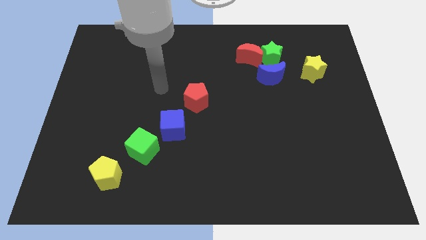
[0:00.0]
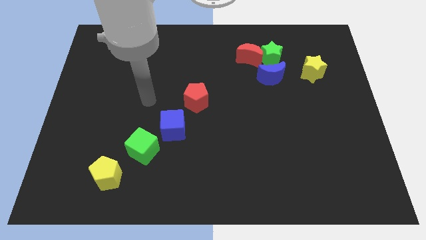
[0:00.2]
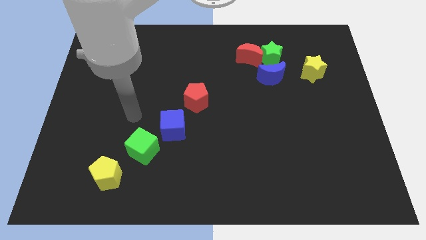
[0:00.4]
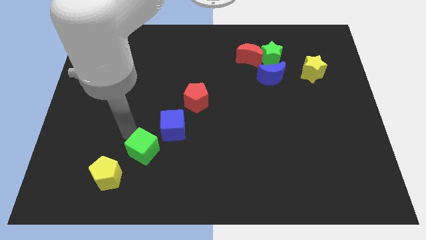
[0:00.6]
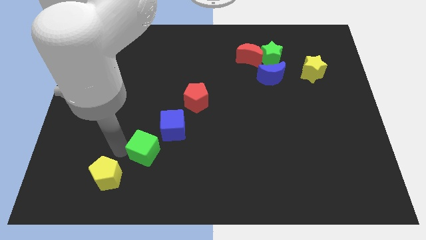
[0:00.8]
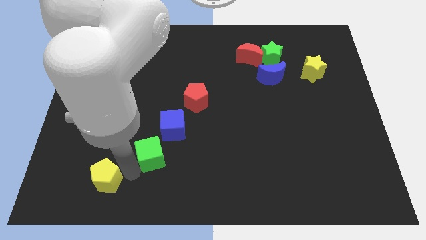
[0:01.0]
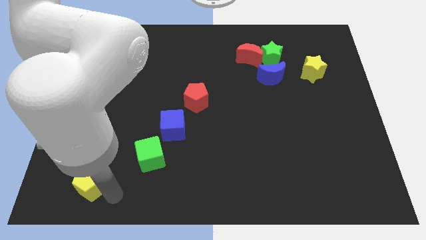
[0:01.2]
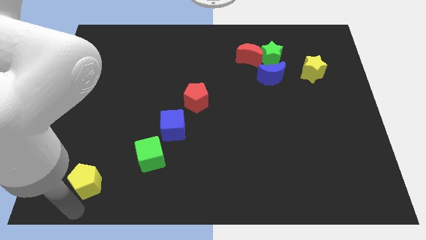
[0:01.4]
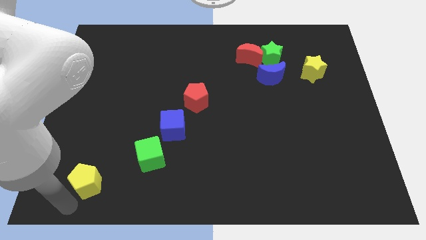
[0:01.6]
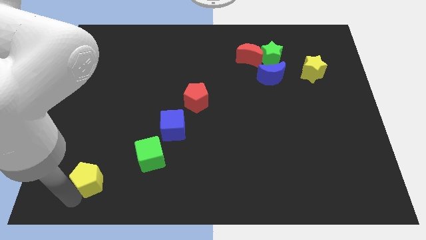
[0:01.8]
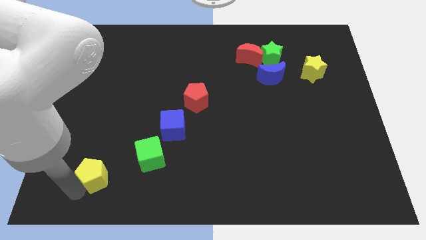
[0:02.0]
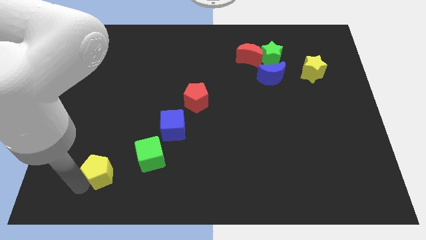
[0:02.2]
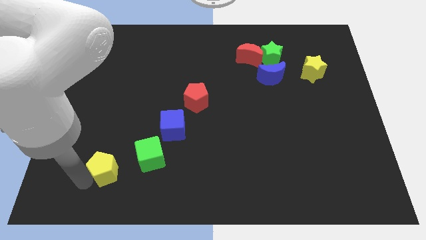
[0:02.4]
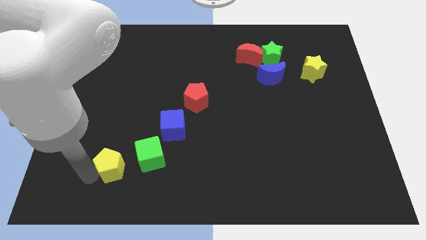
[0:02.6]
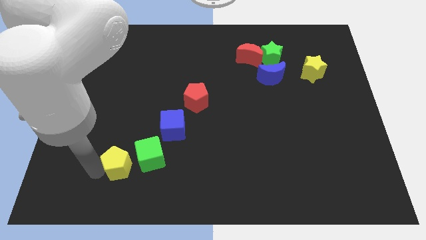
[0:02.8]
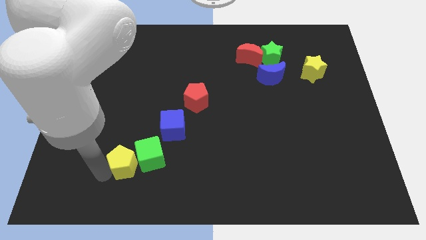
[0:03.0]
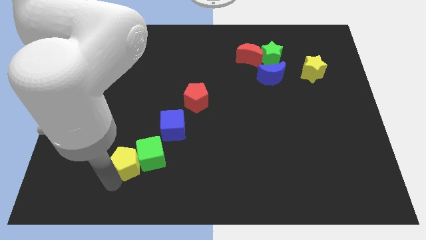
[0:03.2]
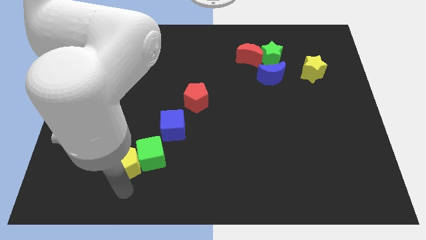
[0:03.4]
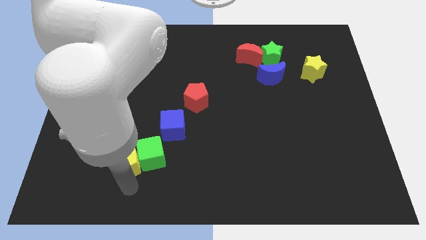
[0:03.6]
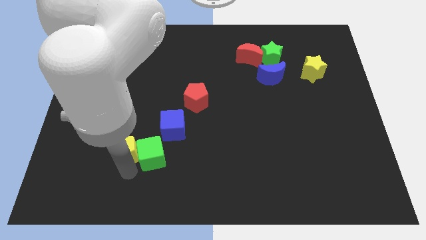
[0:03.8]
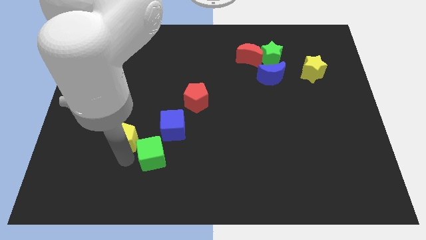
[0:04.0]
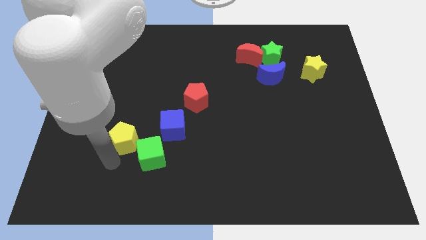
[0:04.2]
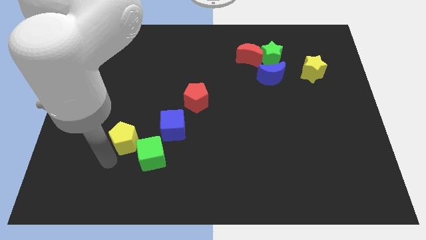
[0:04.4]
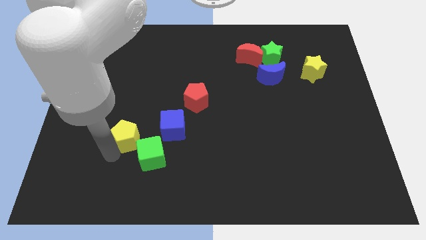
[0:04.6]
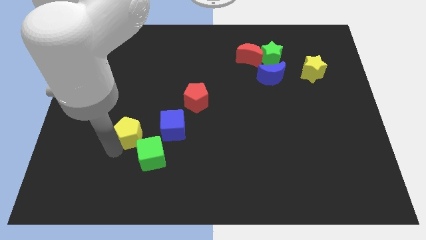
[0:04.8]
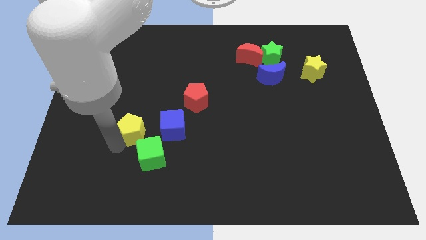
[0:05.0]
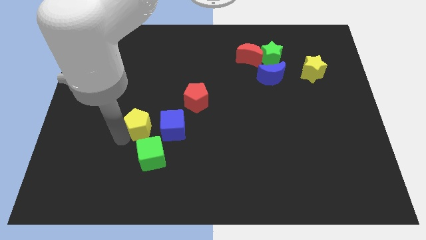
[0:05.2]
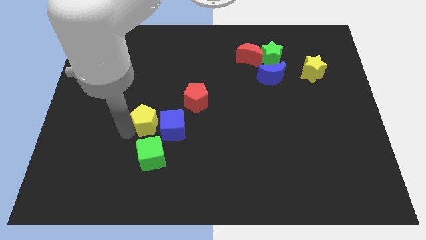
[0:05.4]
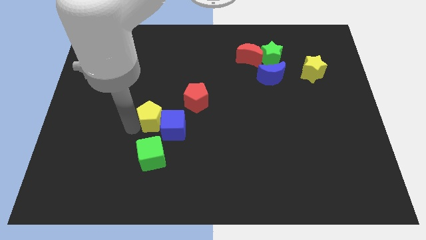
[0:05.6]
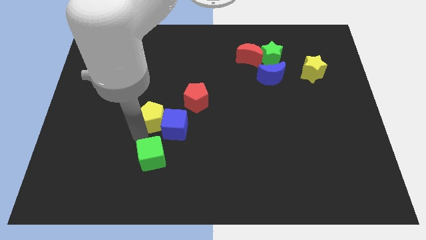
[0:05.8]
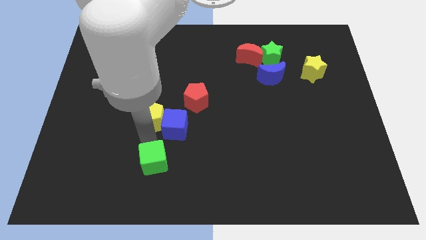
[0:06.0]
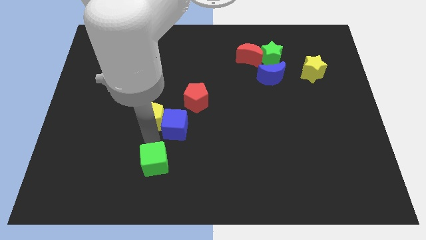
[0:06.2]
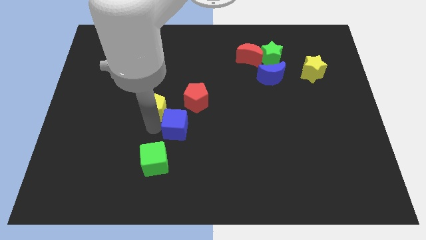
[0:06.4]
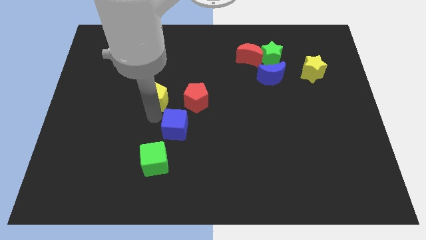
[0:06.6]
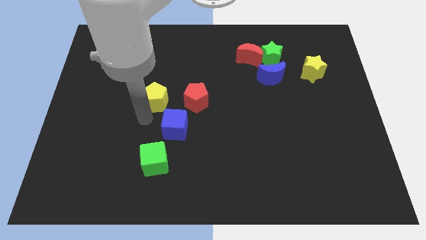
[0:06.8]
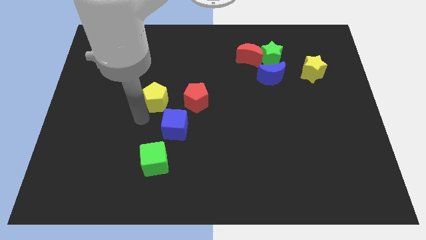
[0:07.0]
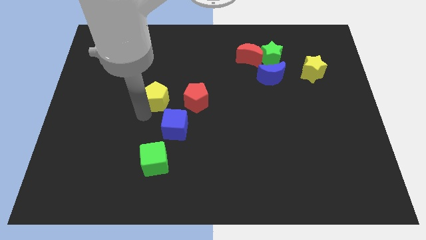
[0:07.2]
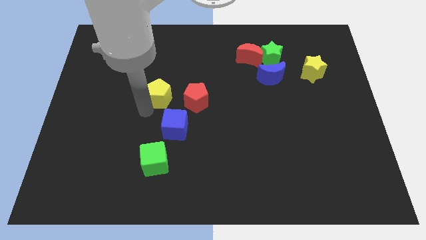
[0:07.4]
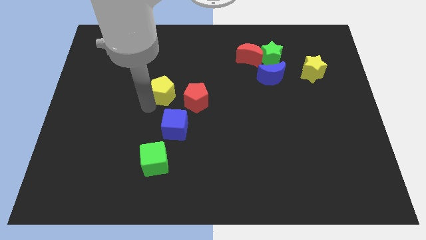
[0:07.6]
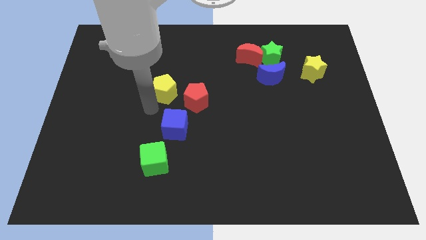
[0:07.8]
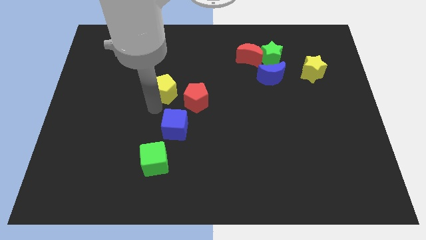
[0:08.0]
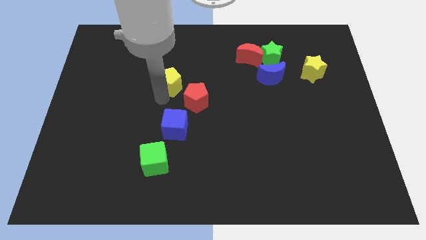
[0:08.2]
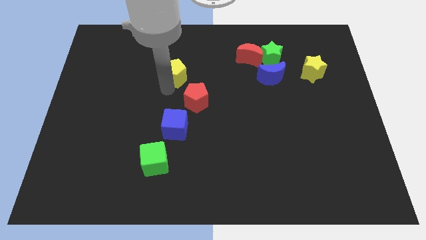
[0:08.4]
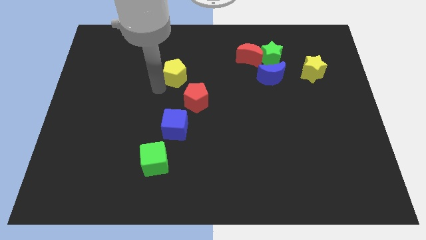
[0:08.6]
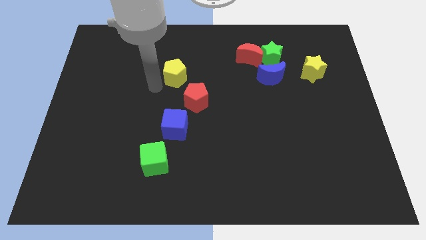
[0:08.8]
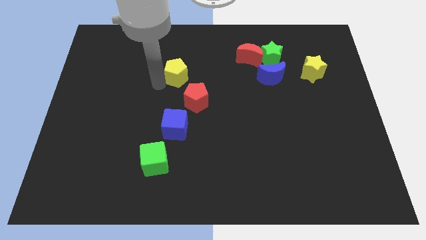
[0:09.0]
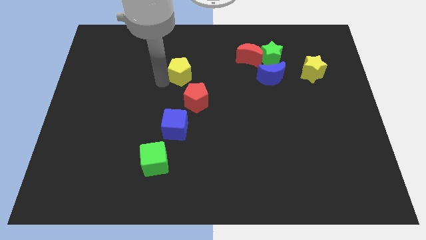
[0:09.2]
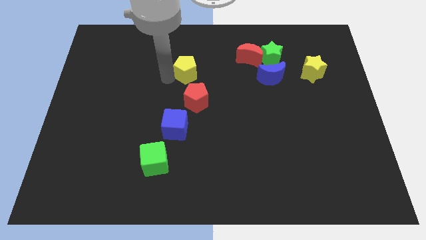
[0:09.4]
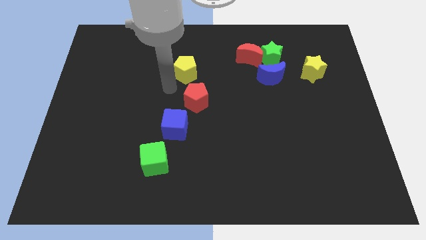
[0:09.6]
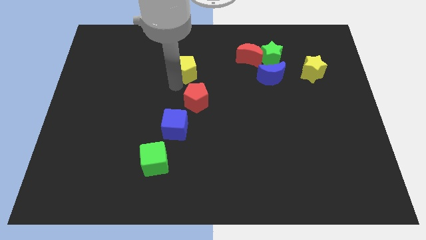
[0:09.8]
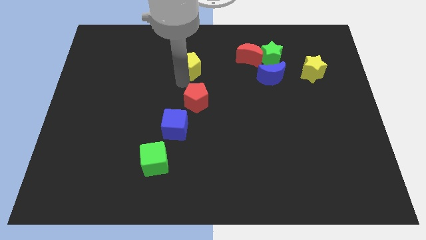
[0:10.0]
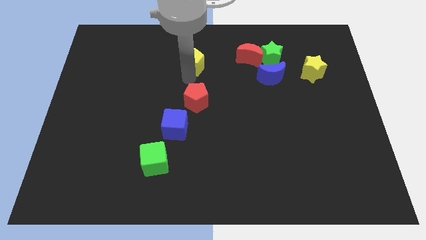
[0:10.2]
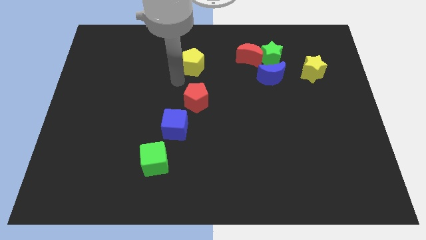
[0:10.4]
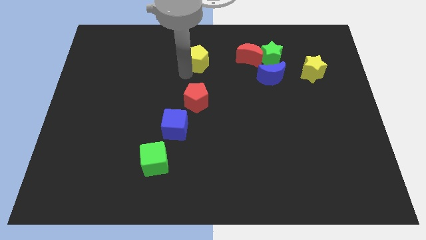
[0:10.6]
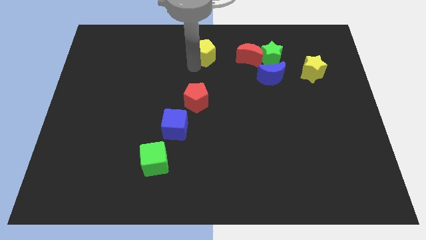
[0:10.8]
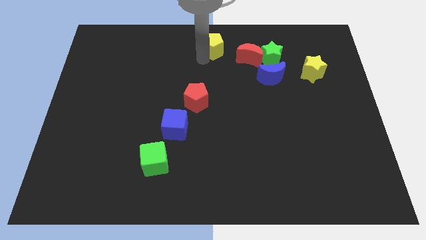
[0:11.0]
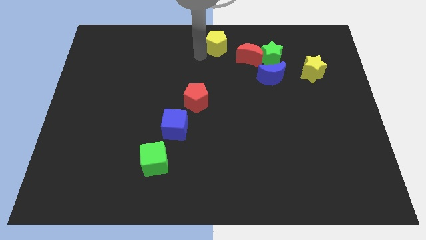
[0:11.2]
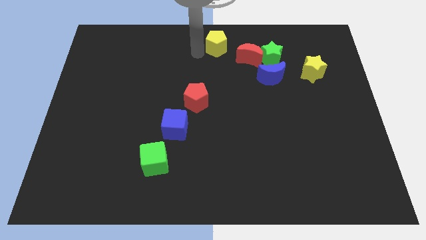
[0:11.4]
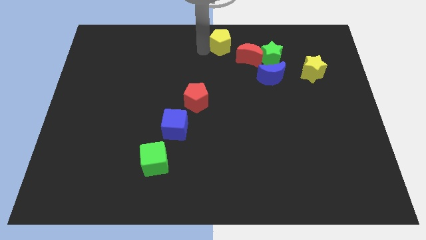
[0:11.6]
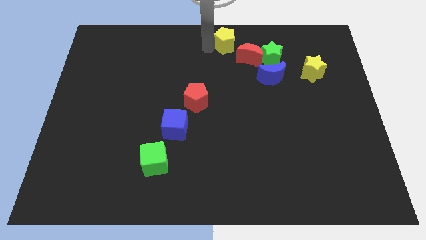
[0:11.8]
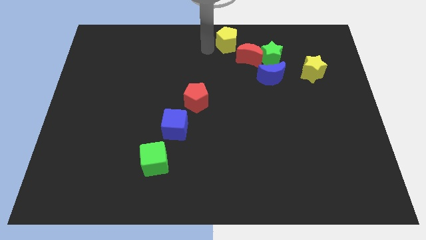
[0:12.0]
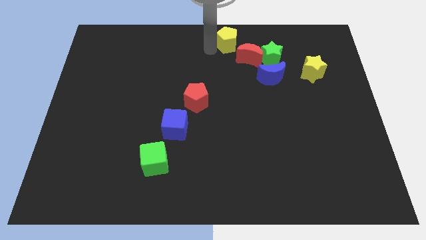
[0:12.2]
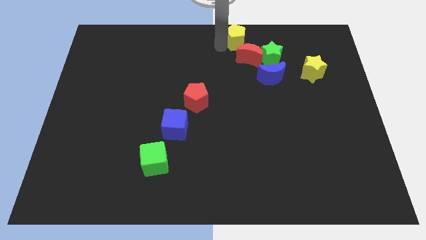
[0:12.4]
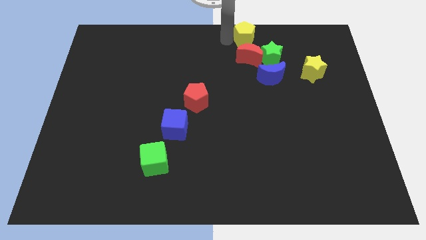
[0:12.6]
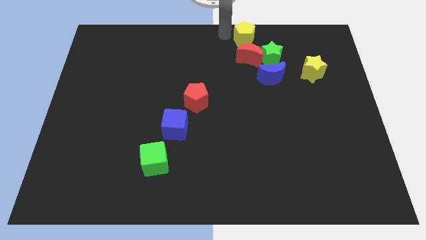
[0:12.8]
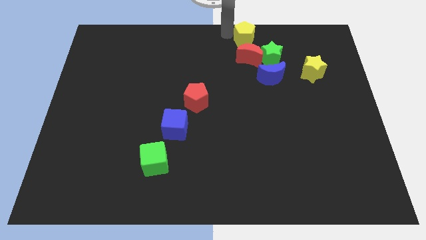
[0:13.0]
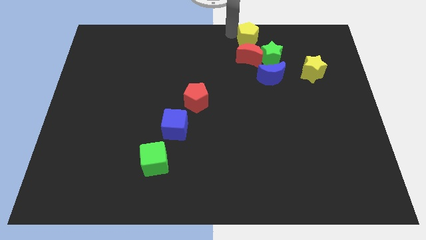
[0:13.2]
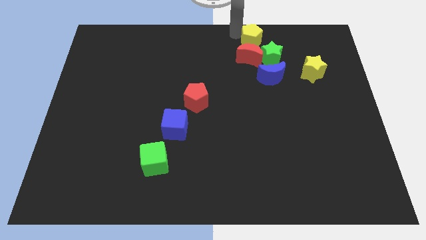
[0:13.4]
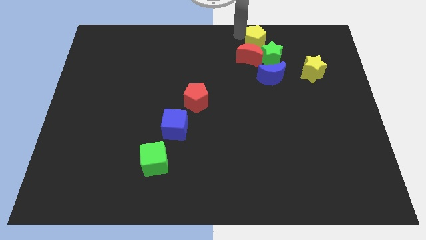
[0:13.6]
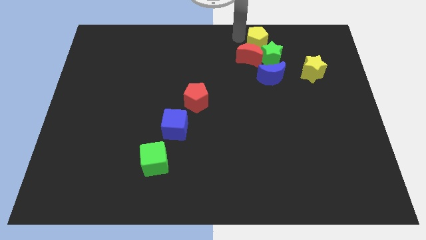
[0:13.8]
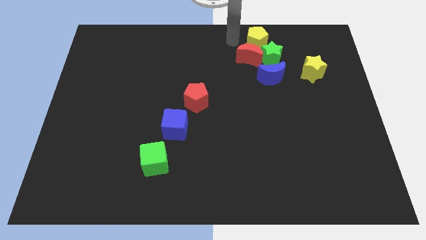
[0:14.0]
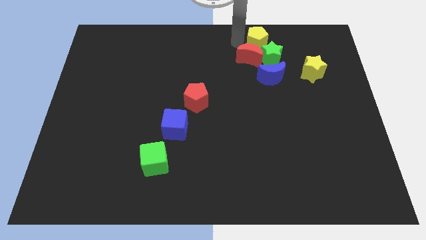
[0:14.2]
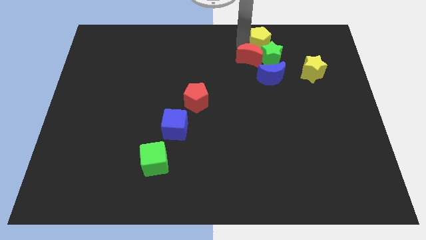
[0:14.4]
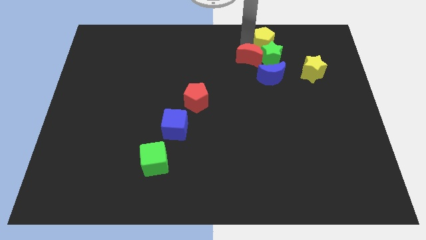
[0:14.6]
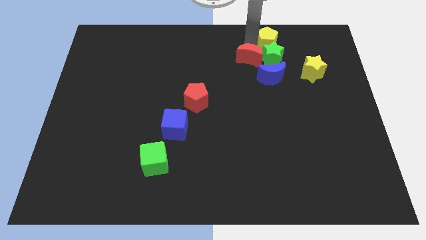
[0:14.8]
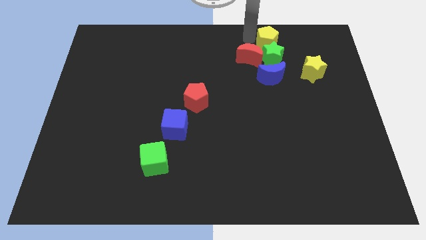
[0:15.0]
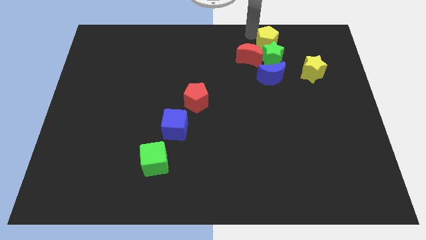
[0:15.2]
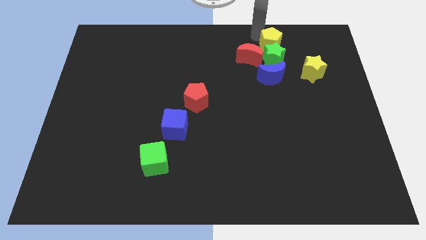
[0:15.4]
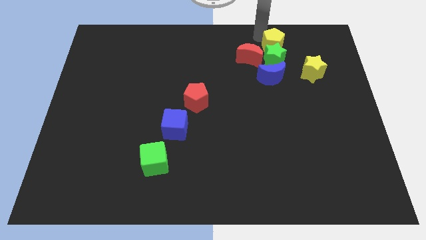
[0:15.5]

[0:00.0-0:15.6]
slide the yellow pentagon to the right side of the red moon
